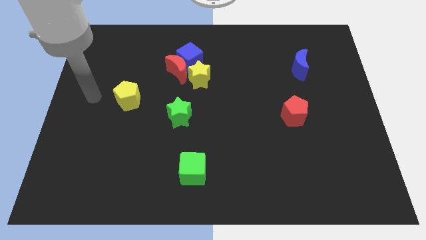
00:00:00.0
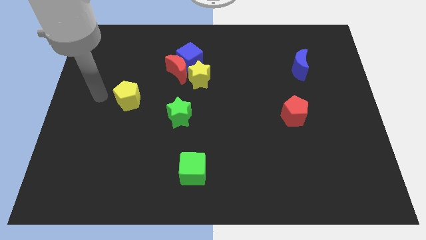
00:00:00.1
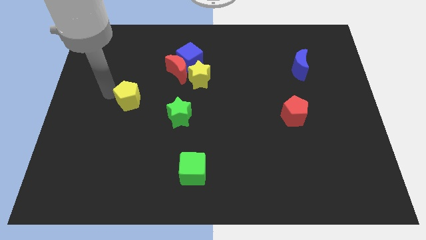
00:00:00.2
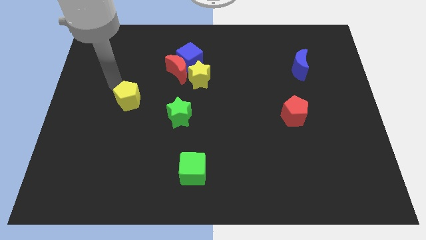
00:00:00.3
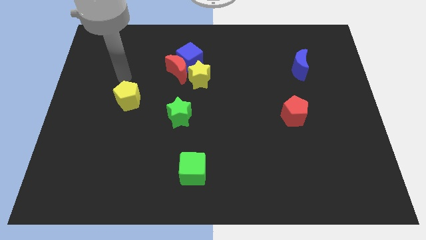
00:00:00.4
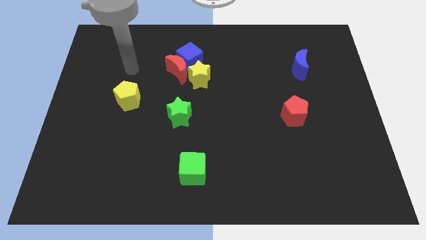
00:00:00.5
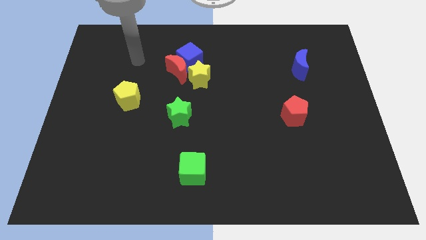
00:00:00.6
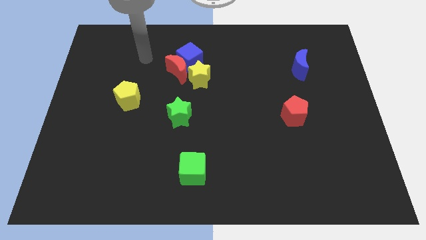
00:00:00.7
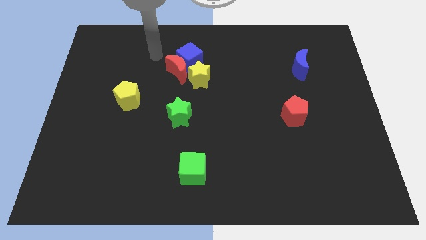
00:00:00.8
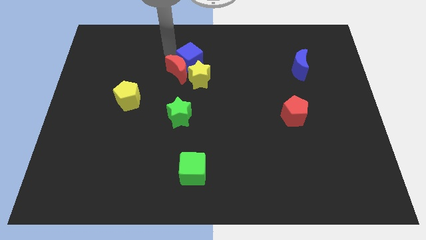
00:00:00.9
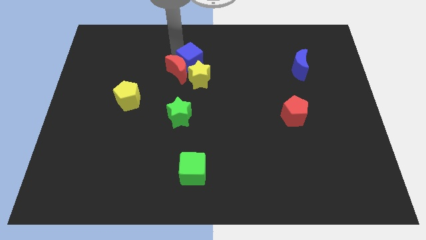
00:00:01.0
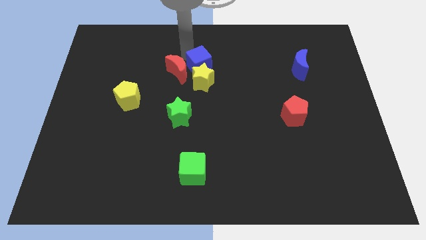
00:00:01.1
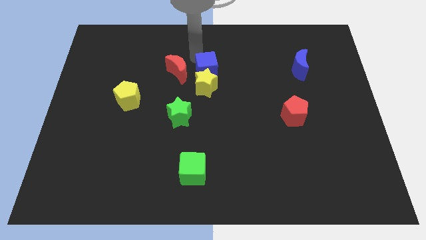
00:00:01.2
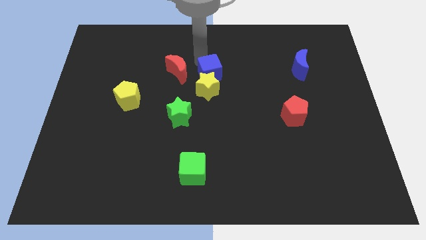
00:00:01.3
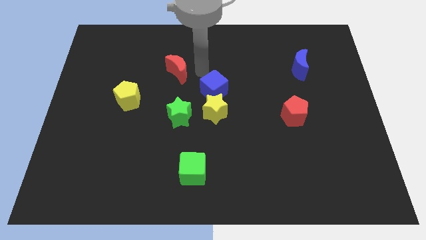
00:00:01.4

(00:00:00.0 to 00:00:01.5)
separate the red moon from the blue cube and yellow star

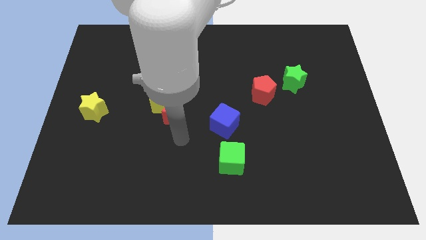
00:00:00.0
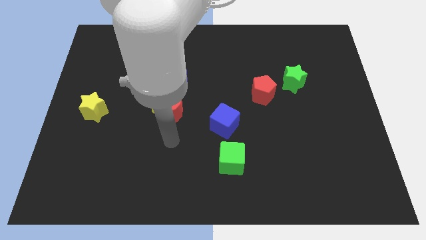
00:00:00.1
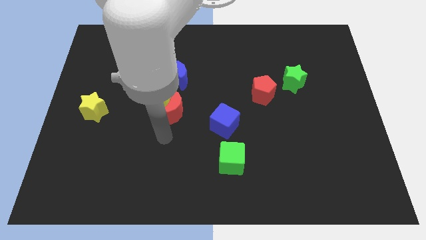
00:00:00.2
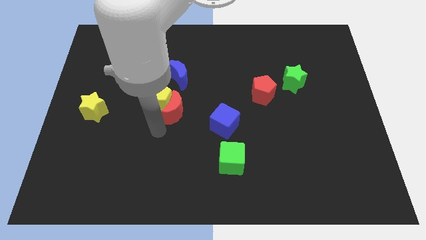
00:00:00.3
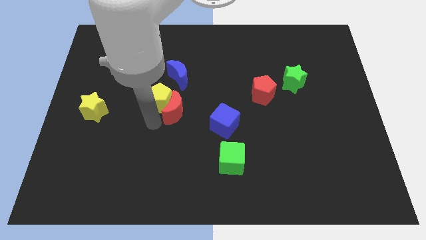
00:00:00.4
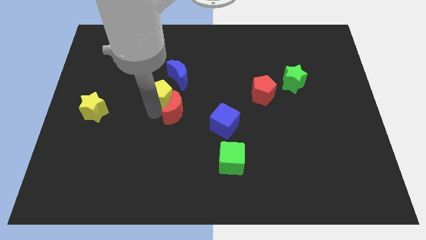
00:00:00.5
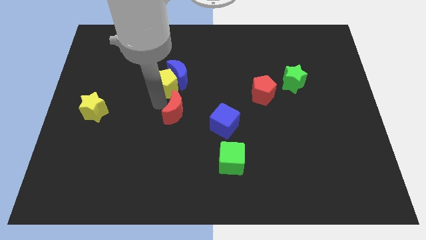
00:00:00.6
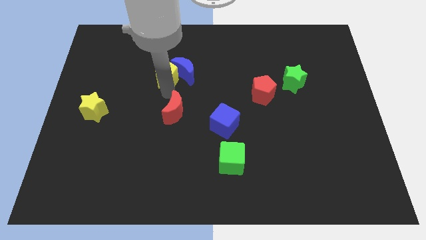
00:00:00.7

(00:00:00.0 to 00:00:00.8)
separate the red moon from the yellow pentagon

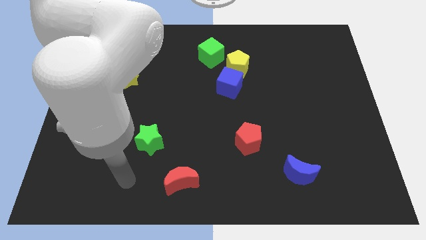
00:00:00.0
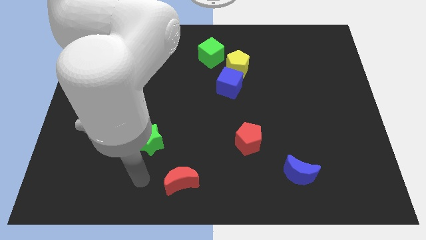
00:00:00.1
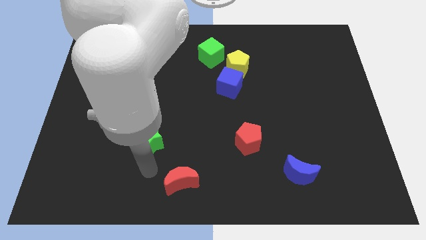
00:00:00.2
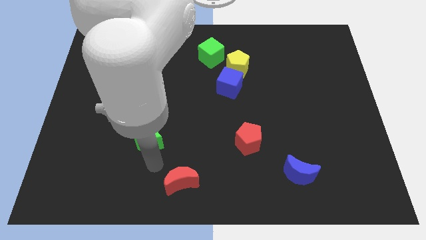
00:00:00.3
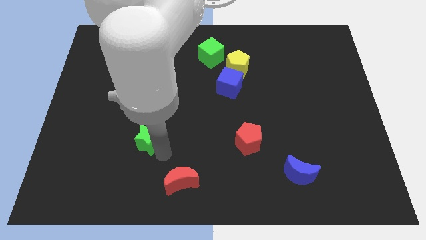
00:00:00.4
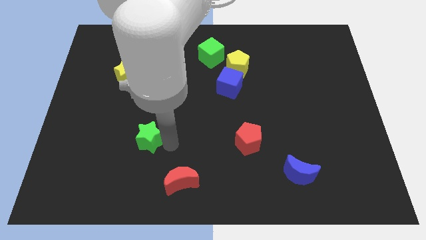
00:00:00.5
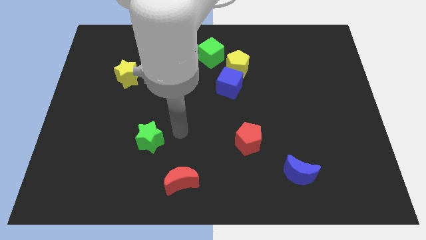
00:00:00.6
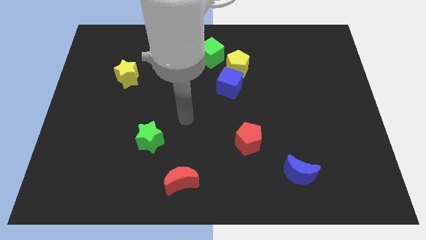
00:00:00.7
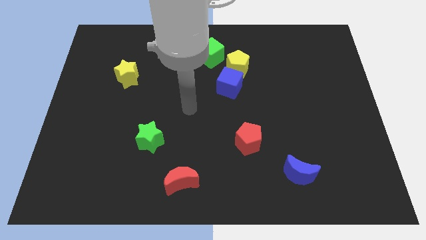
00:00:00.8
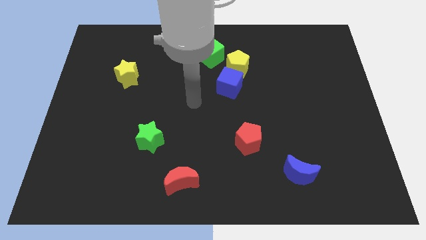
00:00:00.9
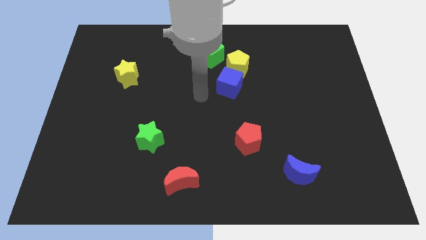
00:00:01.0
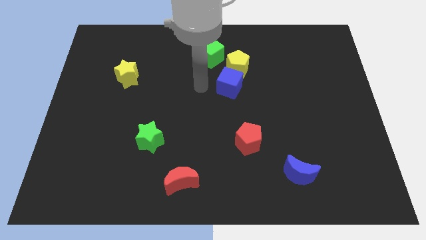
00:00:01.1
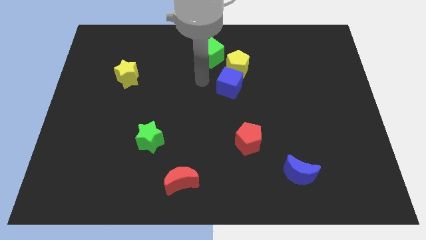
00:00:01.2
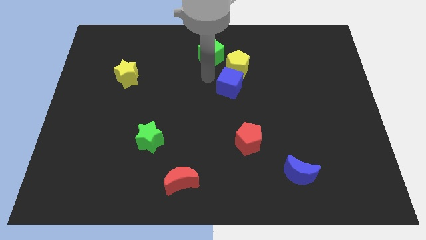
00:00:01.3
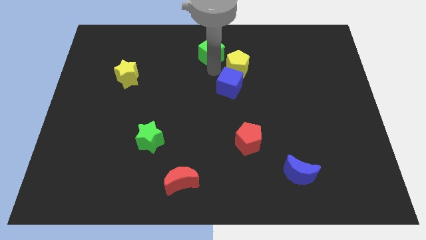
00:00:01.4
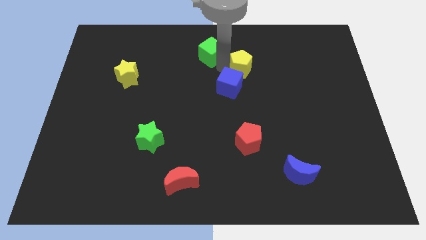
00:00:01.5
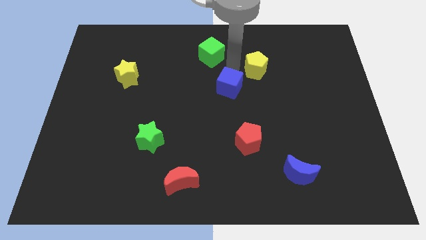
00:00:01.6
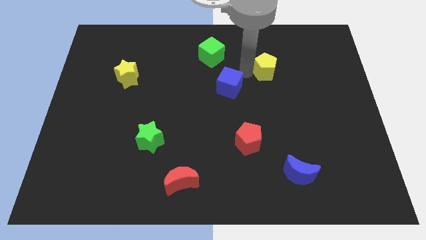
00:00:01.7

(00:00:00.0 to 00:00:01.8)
separate the blue cube from the yellow pentagon

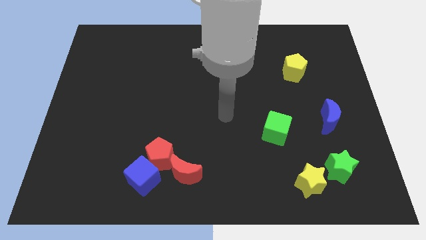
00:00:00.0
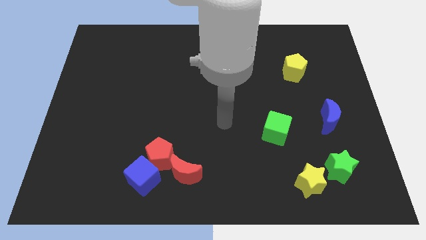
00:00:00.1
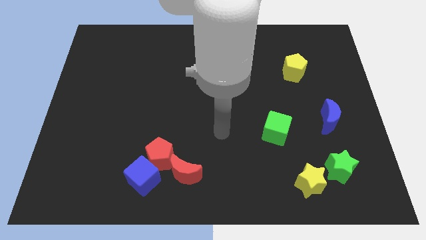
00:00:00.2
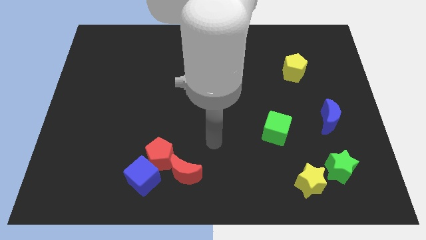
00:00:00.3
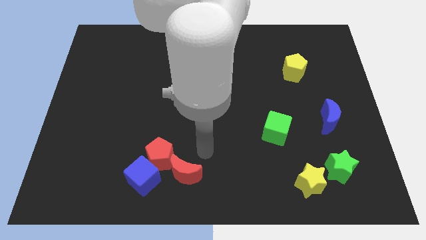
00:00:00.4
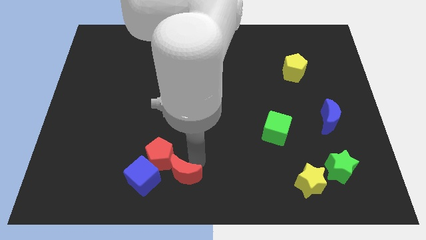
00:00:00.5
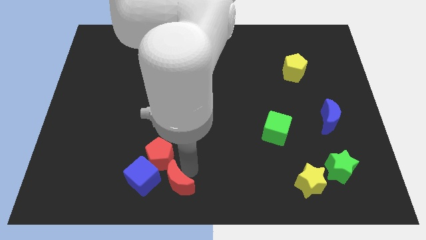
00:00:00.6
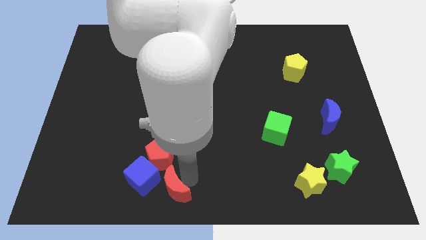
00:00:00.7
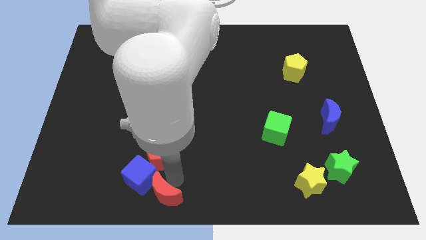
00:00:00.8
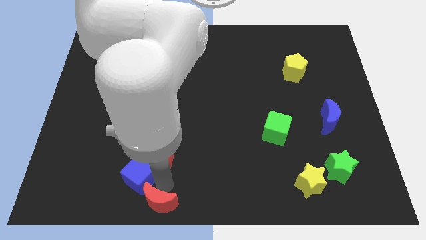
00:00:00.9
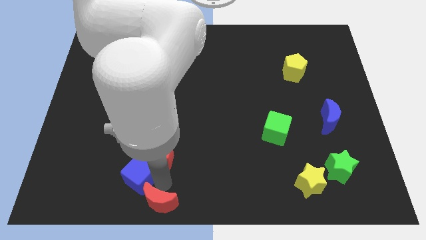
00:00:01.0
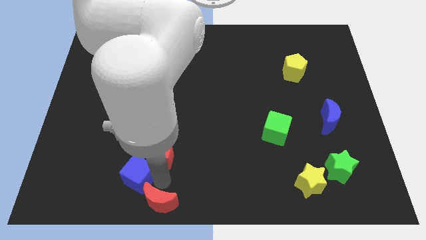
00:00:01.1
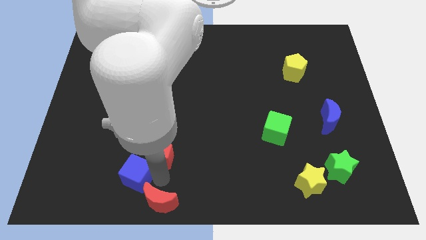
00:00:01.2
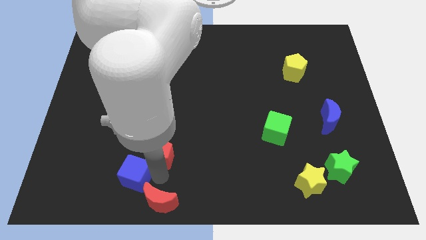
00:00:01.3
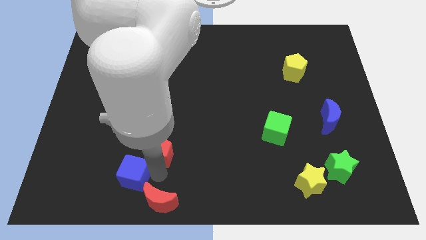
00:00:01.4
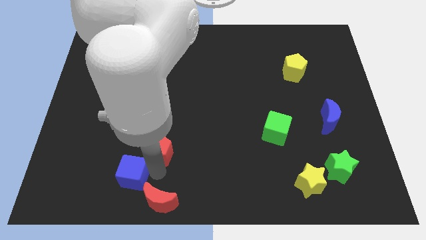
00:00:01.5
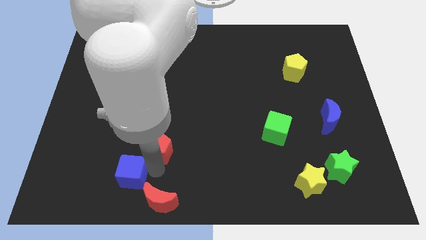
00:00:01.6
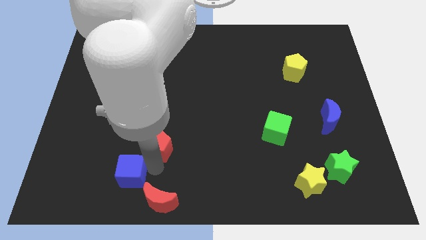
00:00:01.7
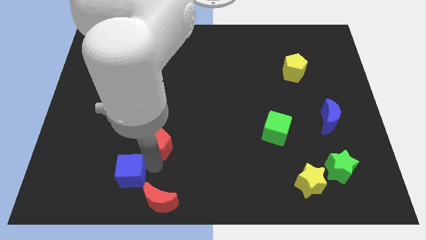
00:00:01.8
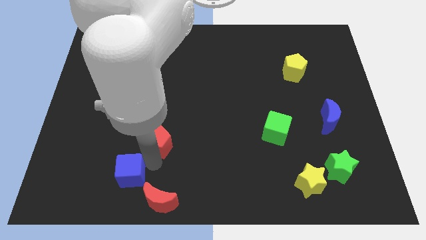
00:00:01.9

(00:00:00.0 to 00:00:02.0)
separate the red pentagon from the blue cube and red moon

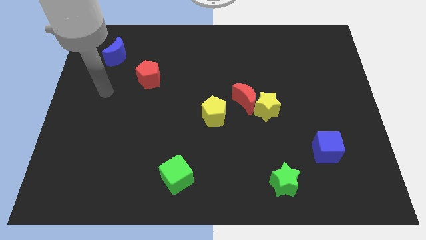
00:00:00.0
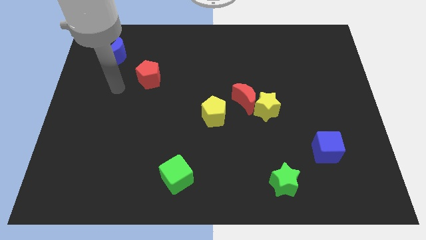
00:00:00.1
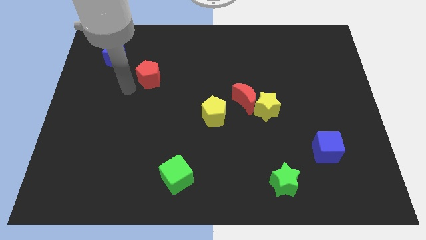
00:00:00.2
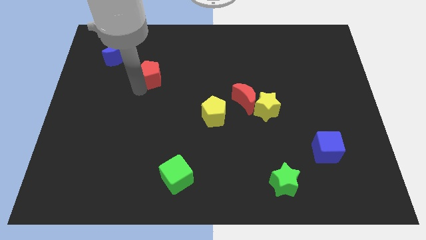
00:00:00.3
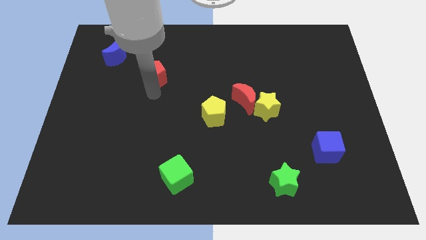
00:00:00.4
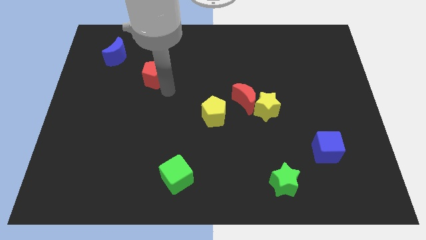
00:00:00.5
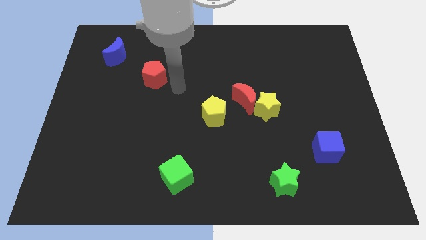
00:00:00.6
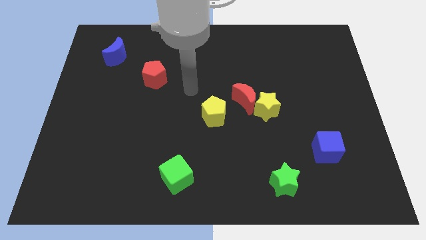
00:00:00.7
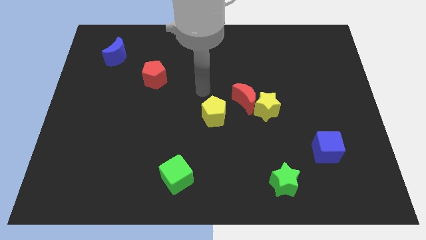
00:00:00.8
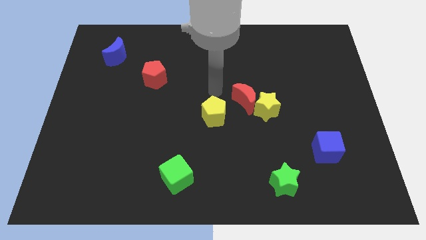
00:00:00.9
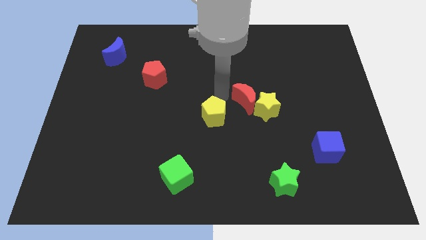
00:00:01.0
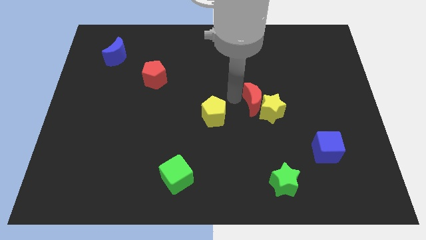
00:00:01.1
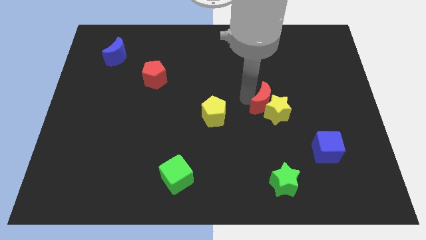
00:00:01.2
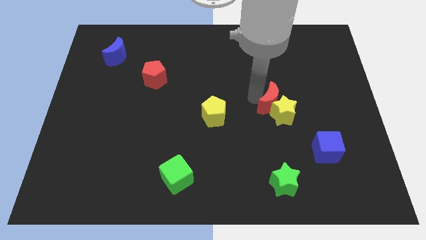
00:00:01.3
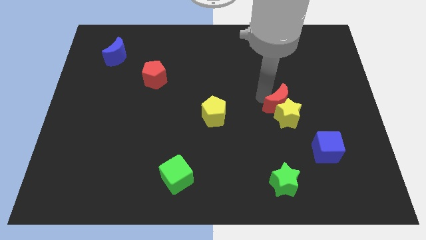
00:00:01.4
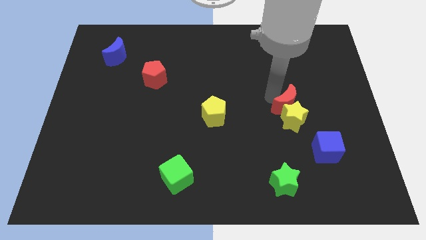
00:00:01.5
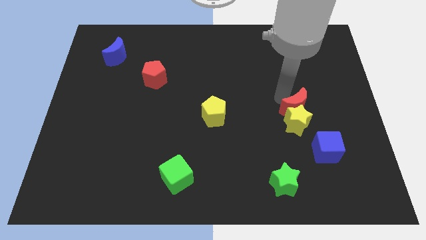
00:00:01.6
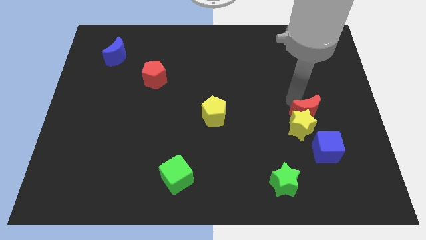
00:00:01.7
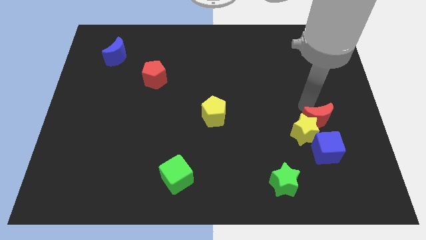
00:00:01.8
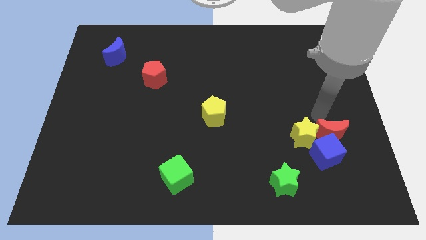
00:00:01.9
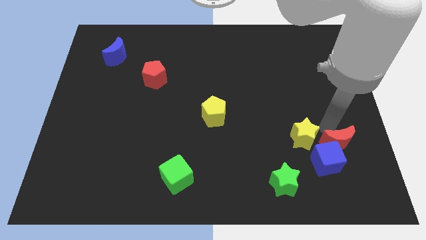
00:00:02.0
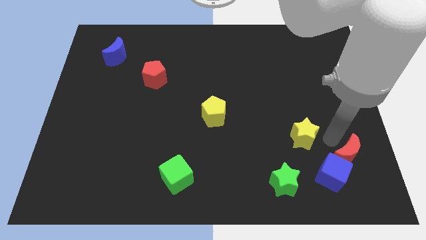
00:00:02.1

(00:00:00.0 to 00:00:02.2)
separate the yellow star from the red moon

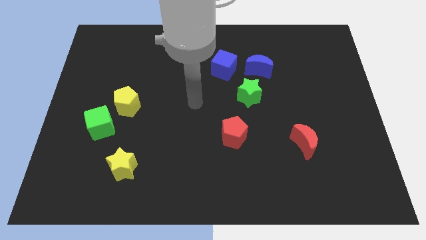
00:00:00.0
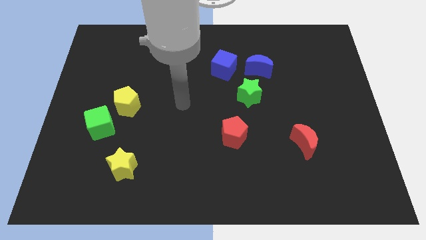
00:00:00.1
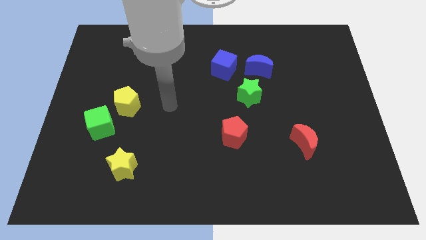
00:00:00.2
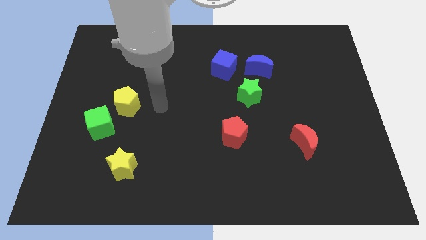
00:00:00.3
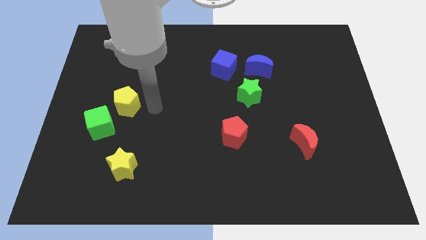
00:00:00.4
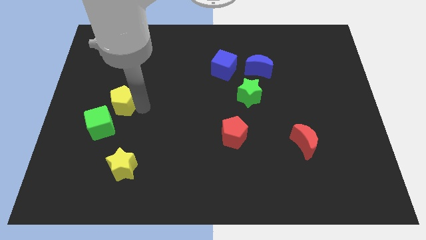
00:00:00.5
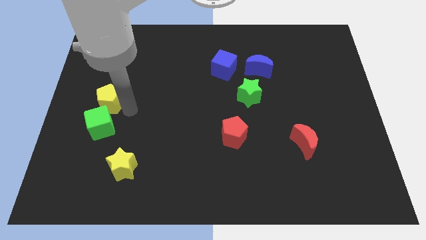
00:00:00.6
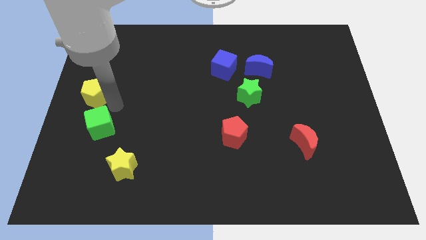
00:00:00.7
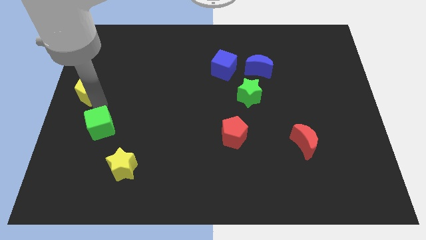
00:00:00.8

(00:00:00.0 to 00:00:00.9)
move the green cube away from the yellow pentagon
